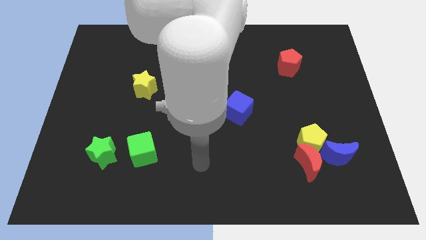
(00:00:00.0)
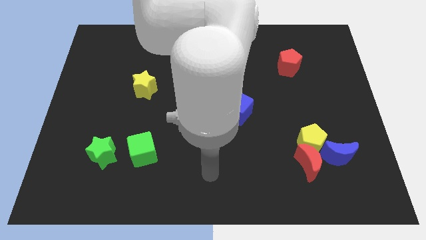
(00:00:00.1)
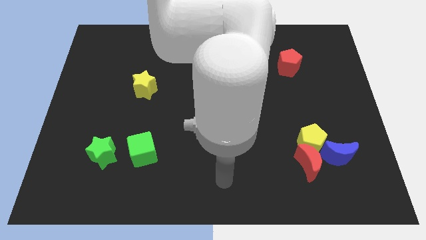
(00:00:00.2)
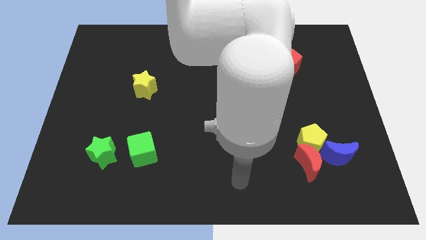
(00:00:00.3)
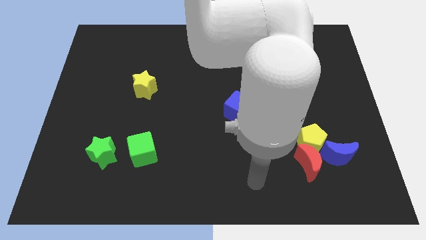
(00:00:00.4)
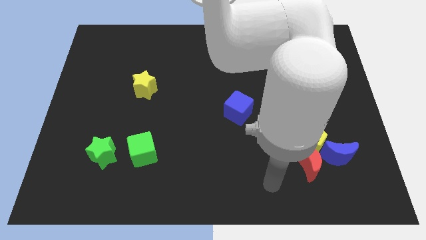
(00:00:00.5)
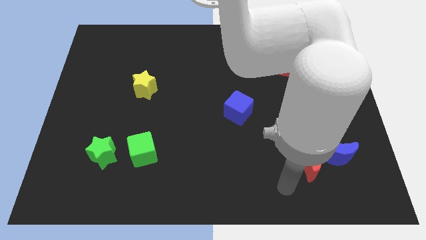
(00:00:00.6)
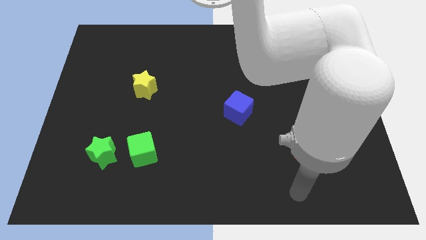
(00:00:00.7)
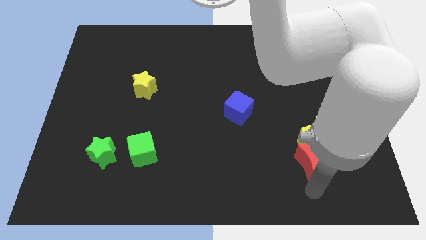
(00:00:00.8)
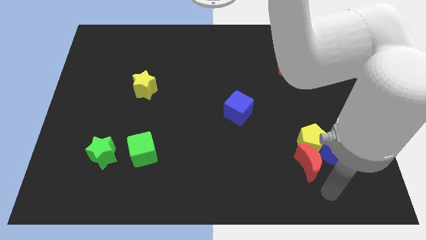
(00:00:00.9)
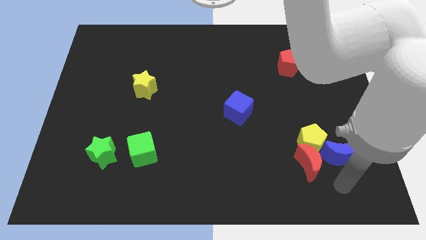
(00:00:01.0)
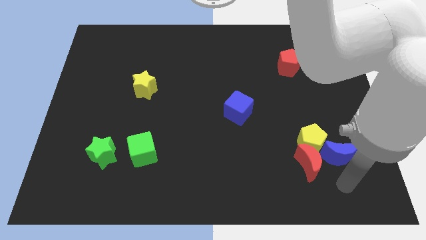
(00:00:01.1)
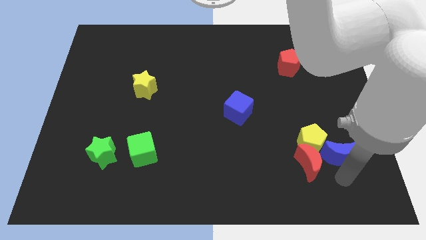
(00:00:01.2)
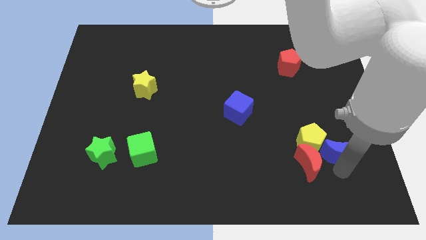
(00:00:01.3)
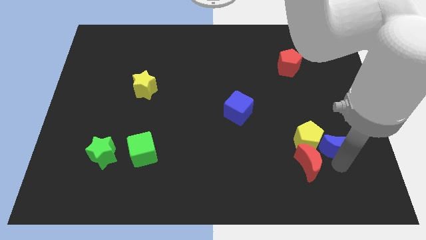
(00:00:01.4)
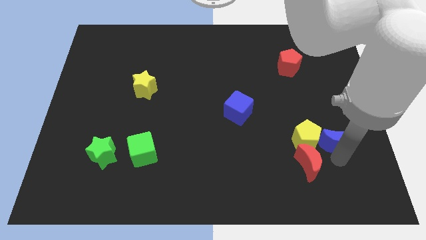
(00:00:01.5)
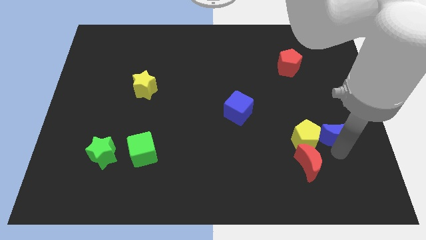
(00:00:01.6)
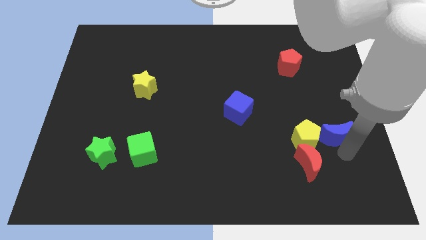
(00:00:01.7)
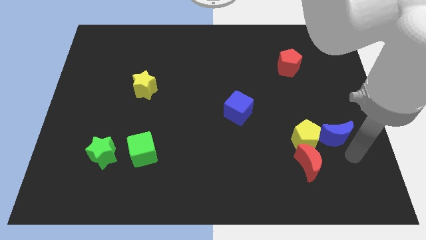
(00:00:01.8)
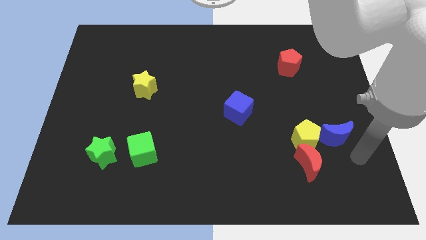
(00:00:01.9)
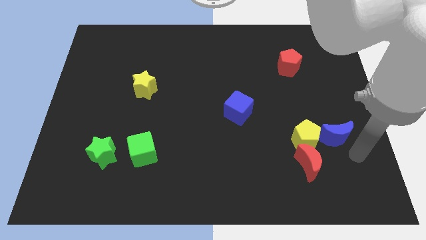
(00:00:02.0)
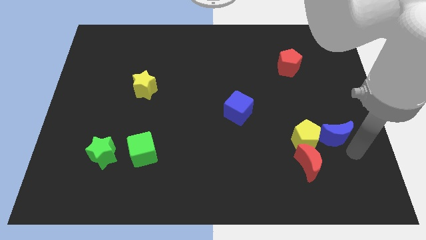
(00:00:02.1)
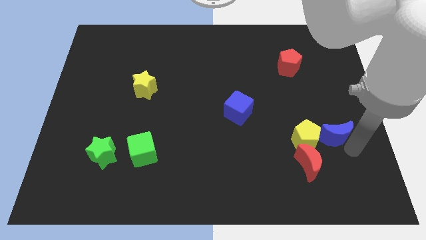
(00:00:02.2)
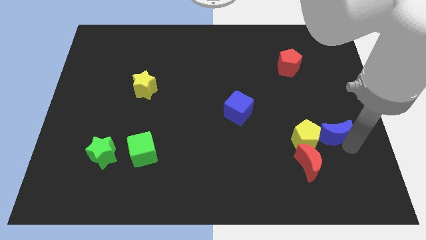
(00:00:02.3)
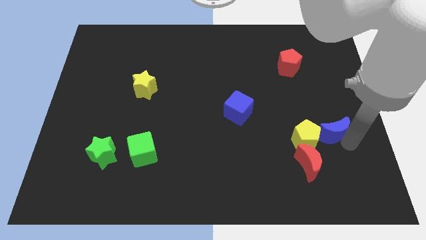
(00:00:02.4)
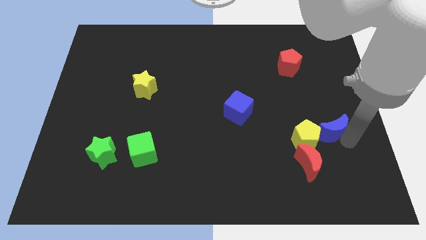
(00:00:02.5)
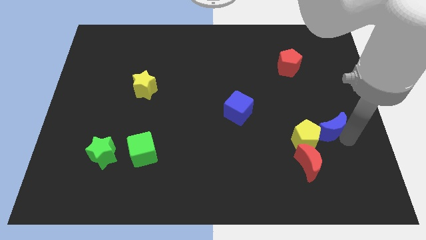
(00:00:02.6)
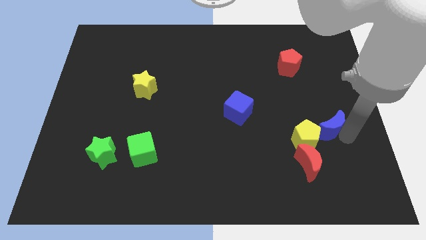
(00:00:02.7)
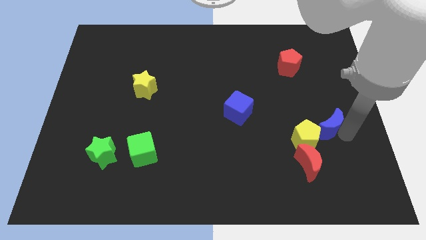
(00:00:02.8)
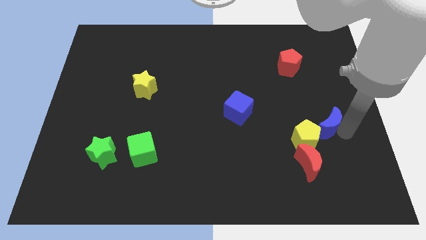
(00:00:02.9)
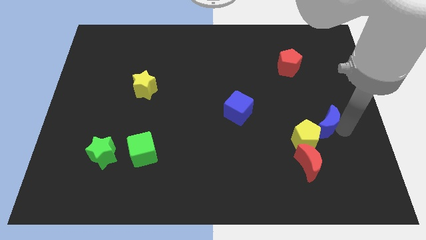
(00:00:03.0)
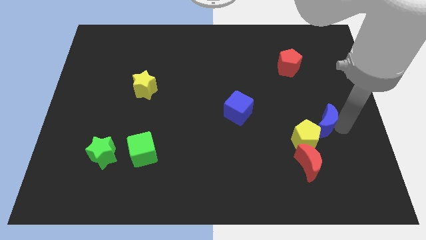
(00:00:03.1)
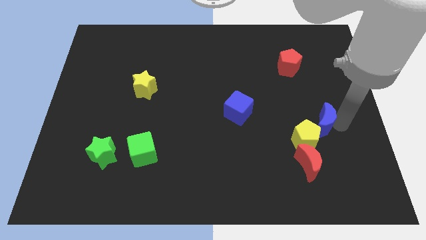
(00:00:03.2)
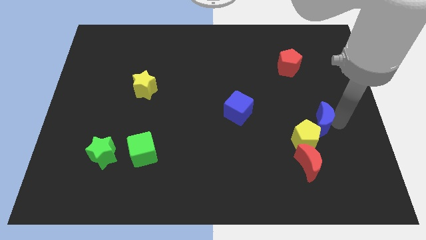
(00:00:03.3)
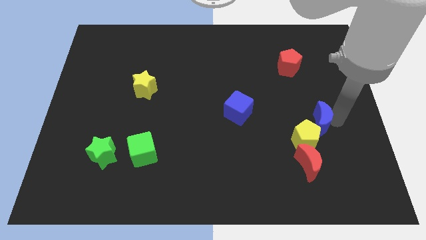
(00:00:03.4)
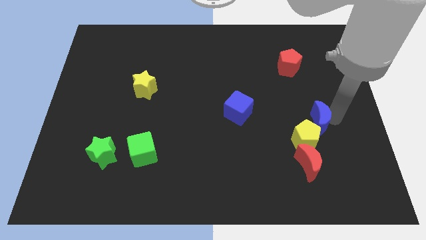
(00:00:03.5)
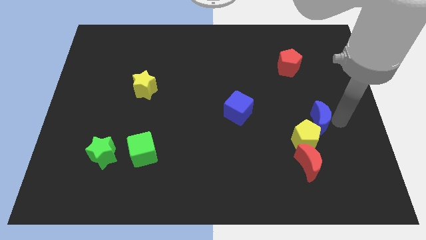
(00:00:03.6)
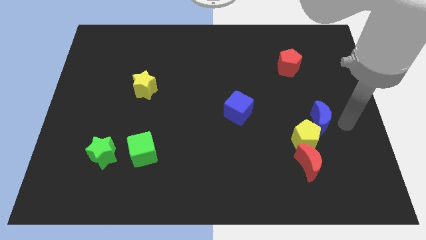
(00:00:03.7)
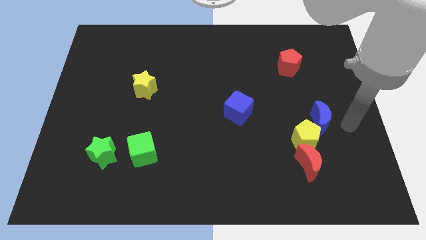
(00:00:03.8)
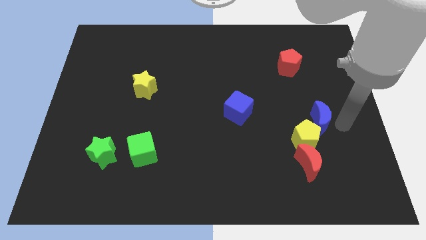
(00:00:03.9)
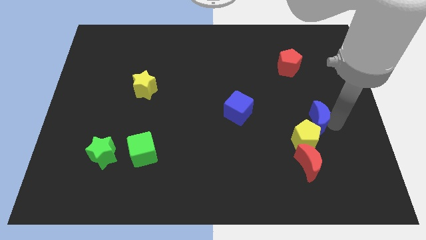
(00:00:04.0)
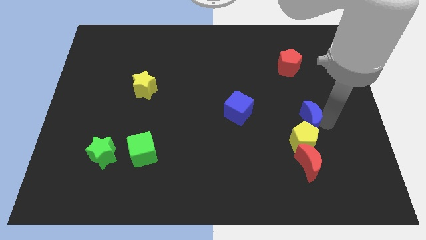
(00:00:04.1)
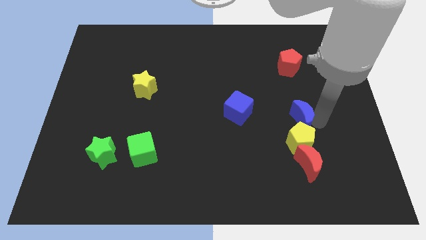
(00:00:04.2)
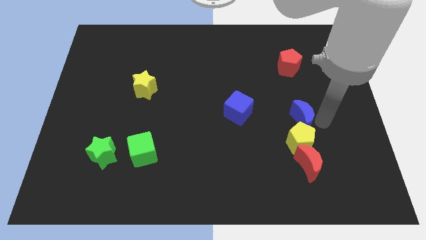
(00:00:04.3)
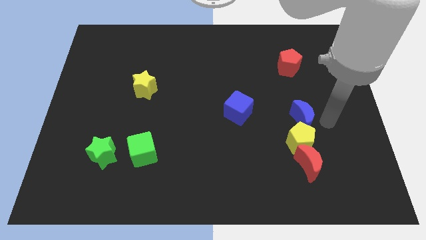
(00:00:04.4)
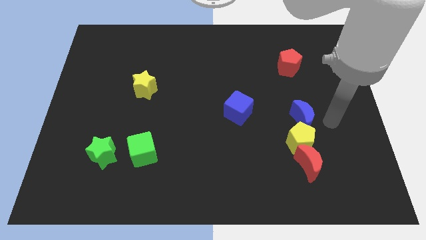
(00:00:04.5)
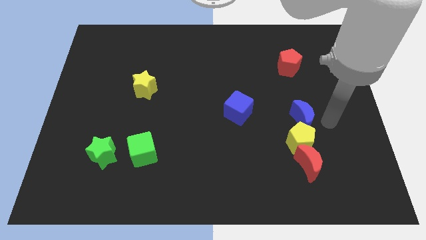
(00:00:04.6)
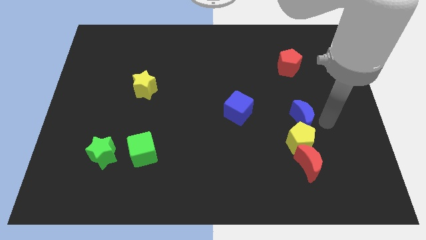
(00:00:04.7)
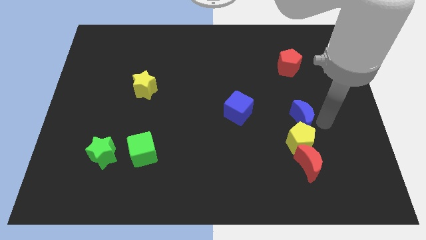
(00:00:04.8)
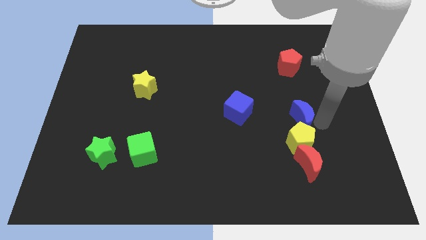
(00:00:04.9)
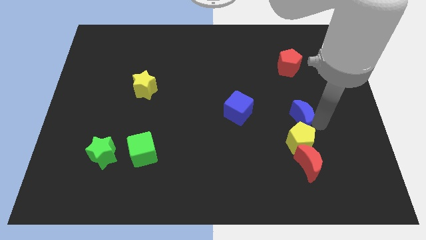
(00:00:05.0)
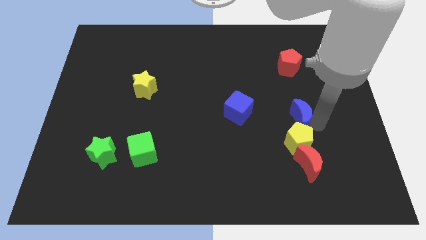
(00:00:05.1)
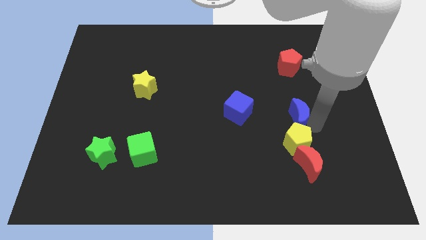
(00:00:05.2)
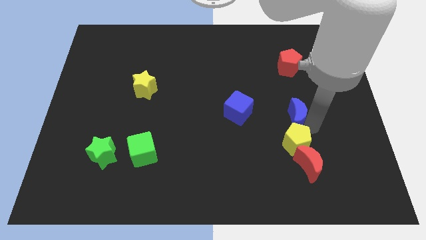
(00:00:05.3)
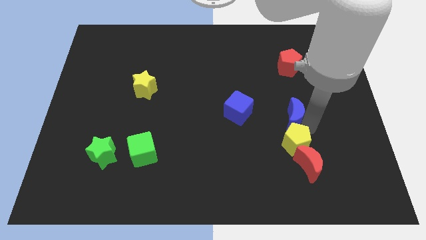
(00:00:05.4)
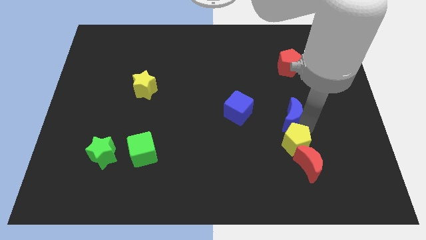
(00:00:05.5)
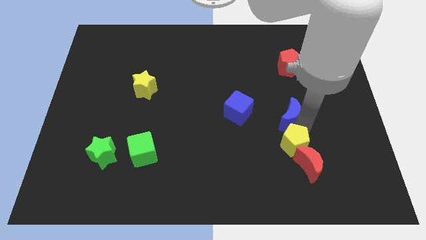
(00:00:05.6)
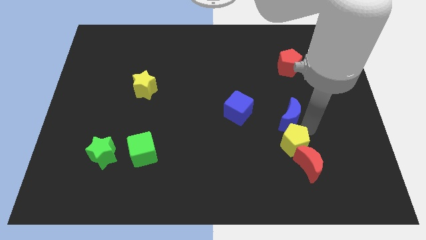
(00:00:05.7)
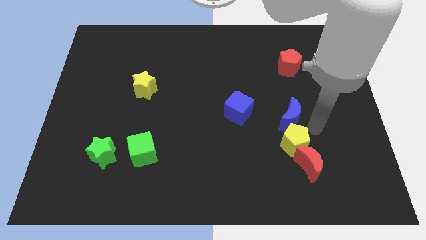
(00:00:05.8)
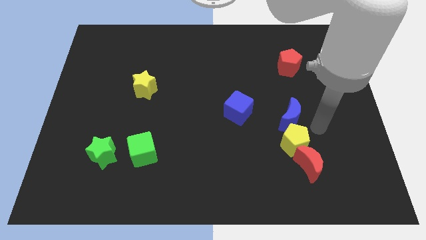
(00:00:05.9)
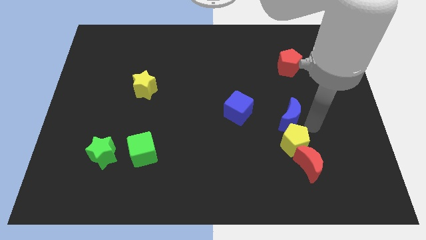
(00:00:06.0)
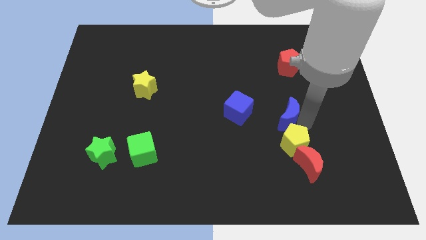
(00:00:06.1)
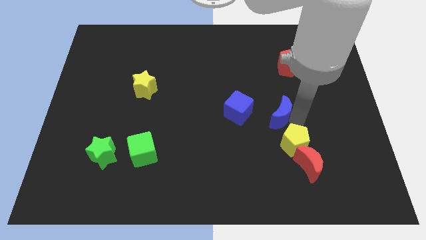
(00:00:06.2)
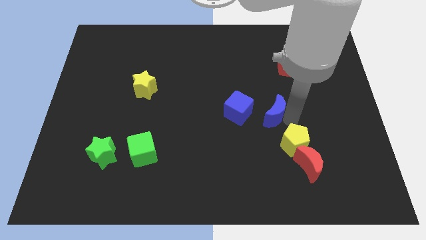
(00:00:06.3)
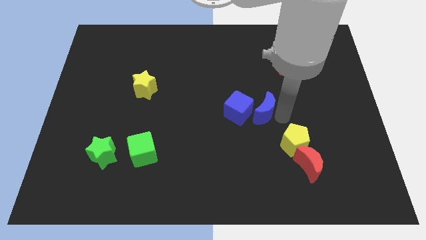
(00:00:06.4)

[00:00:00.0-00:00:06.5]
put the blue moon next to the blue cube

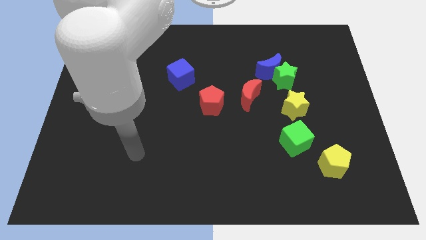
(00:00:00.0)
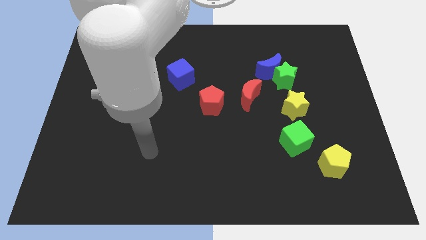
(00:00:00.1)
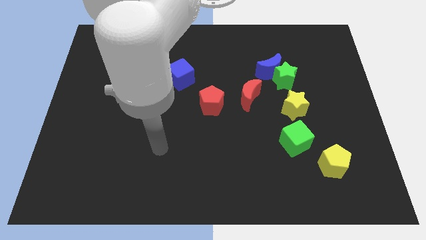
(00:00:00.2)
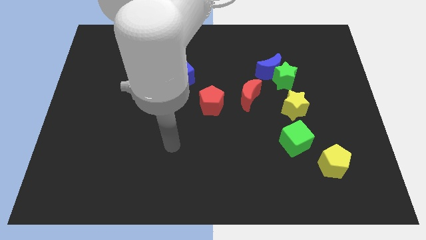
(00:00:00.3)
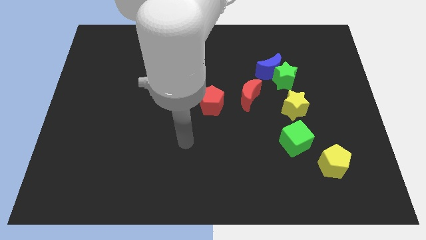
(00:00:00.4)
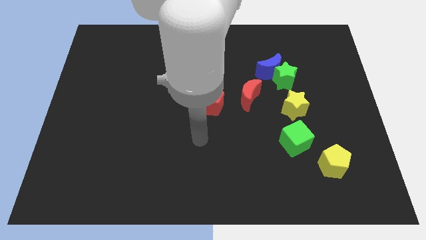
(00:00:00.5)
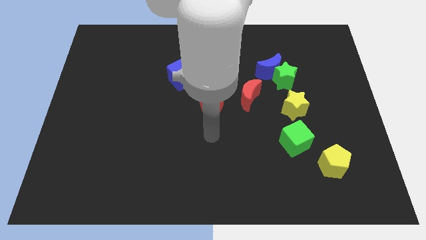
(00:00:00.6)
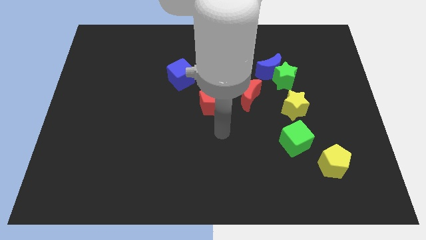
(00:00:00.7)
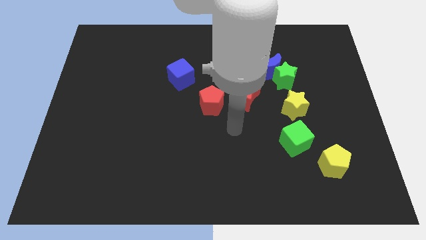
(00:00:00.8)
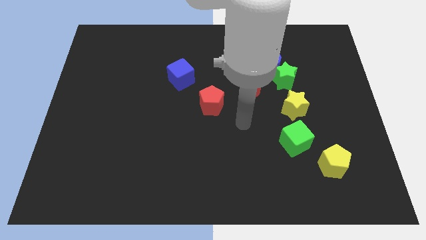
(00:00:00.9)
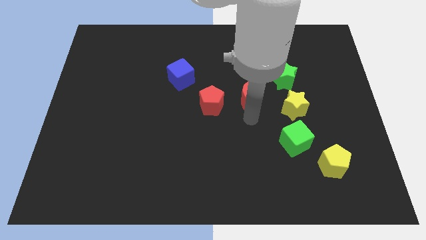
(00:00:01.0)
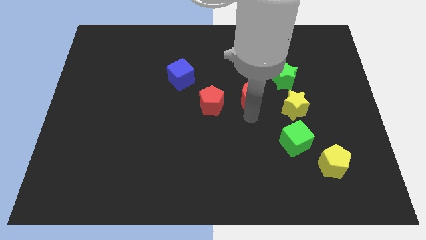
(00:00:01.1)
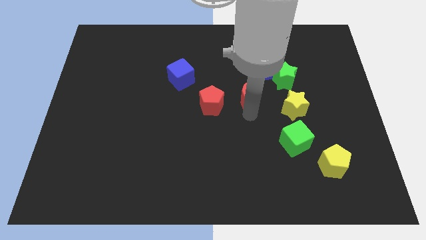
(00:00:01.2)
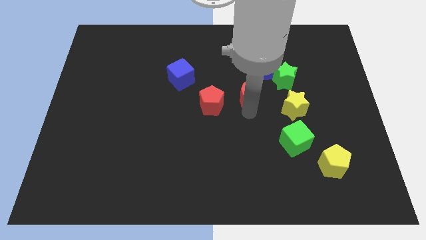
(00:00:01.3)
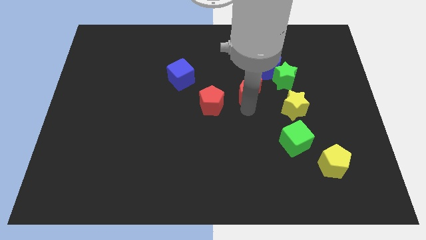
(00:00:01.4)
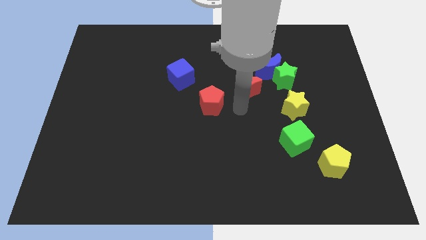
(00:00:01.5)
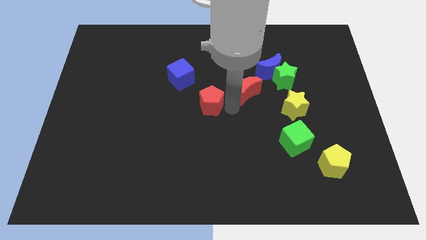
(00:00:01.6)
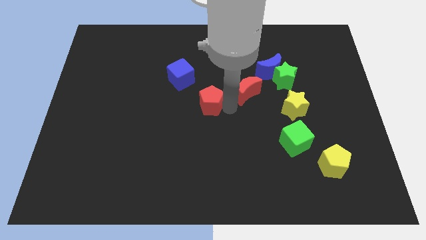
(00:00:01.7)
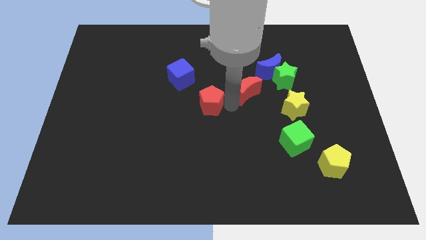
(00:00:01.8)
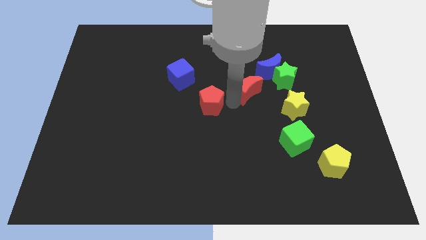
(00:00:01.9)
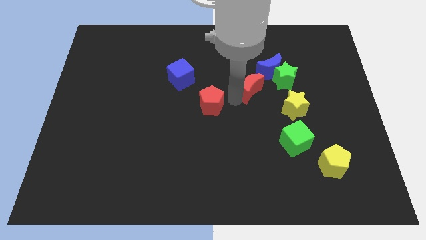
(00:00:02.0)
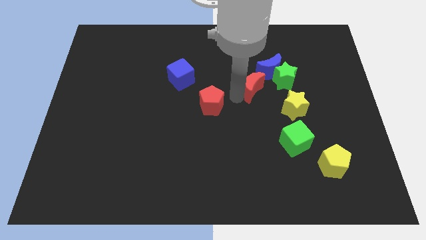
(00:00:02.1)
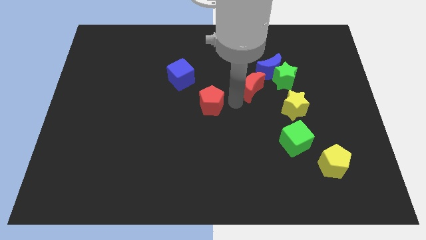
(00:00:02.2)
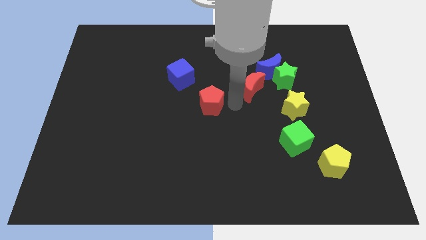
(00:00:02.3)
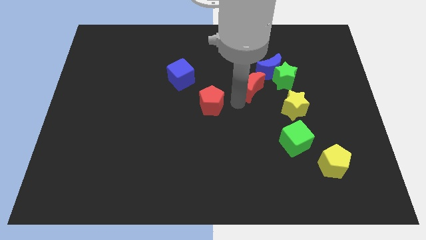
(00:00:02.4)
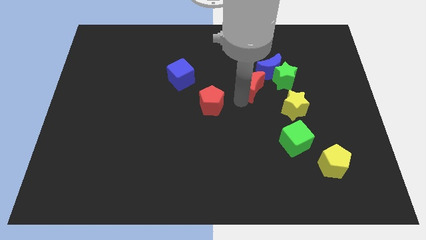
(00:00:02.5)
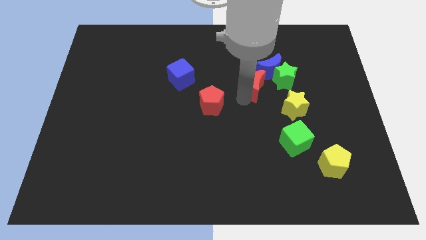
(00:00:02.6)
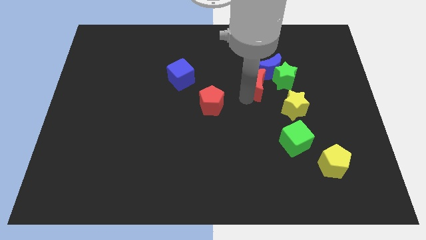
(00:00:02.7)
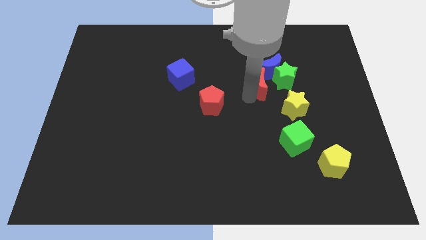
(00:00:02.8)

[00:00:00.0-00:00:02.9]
slide the red moon close to the blue moon
